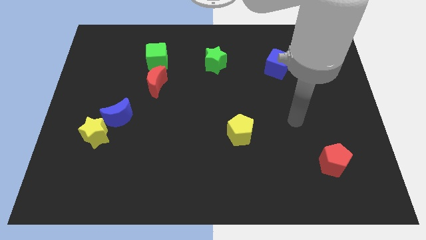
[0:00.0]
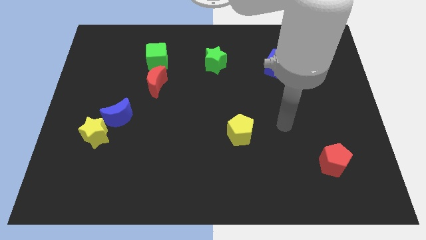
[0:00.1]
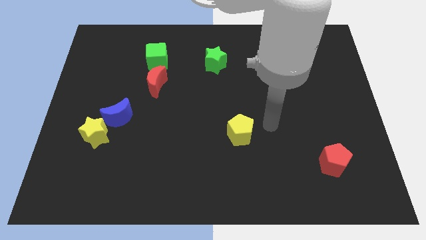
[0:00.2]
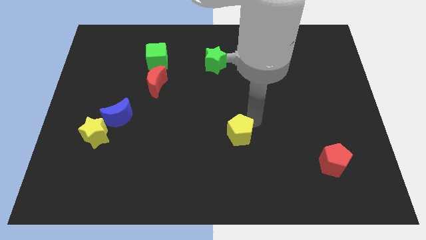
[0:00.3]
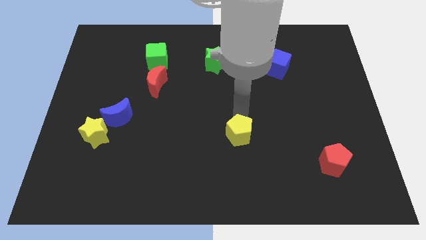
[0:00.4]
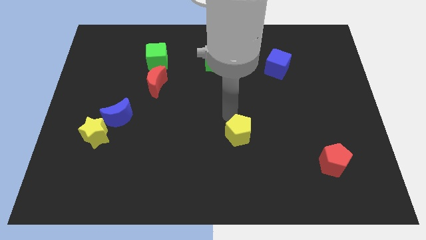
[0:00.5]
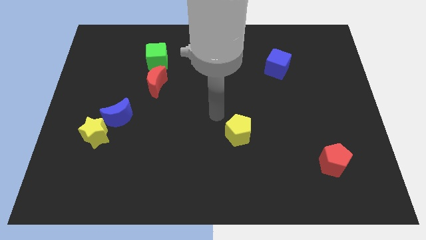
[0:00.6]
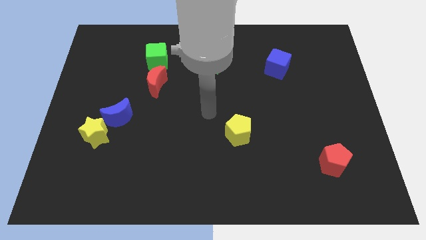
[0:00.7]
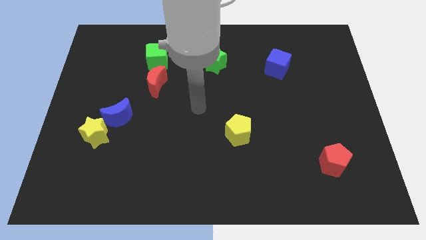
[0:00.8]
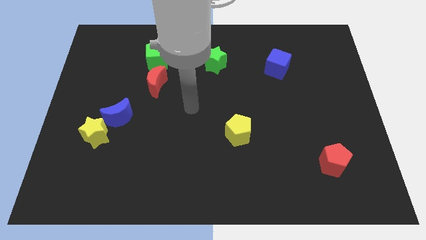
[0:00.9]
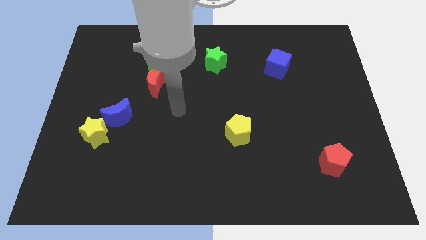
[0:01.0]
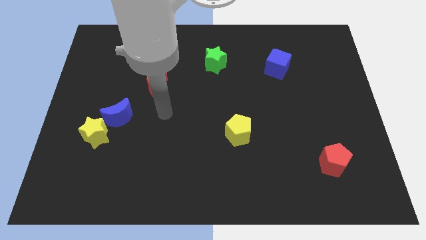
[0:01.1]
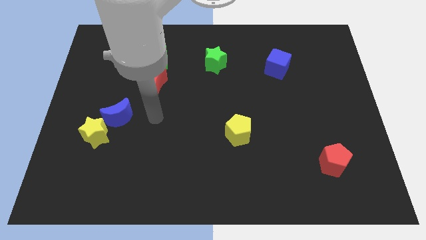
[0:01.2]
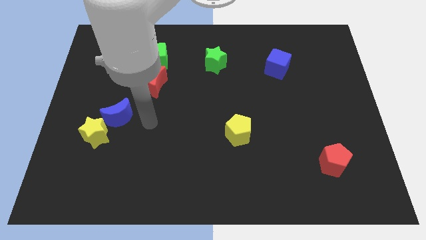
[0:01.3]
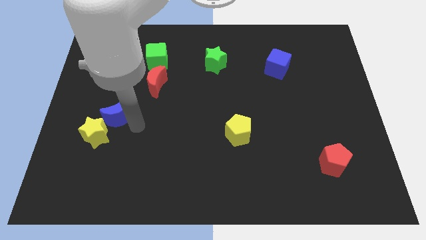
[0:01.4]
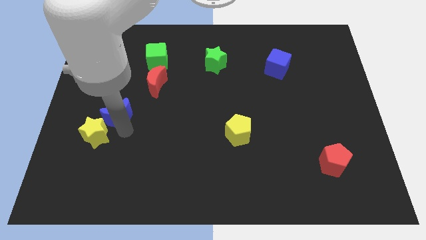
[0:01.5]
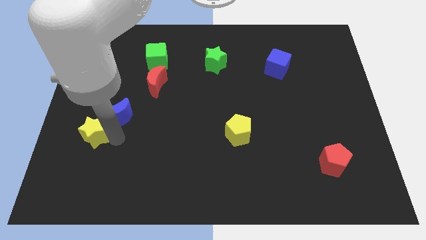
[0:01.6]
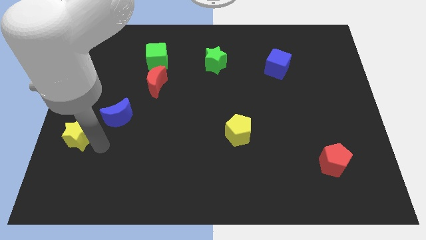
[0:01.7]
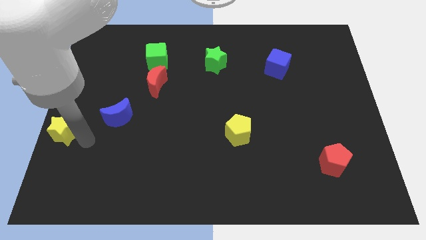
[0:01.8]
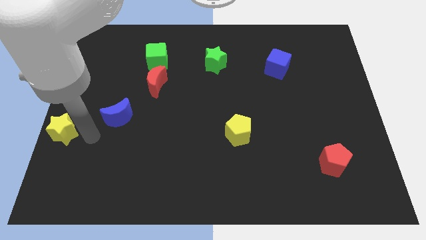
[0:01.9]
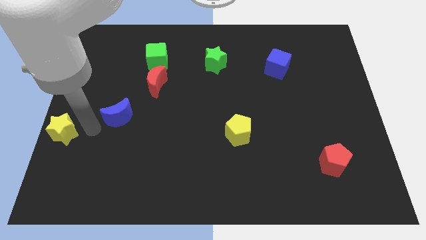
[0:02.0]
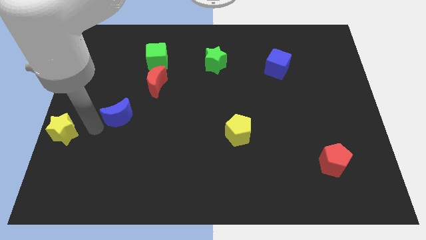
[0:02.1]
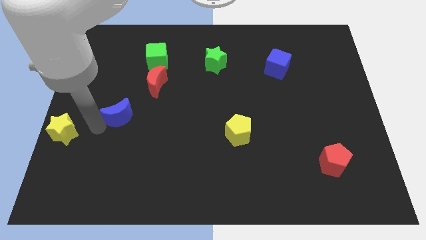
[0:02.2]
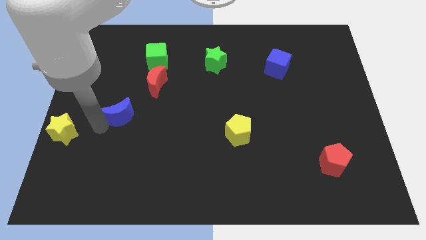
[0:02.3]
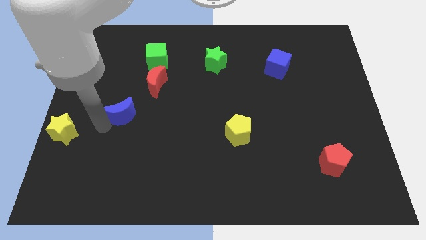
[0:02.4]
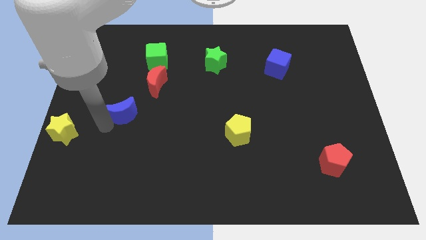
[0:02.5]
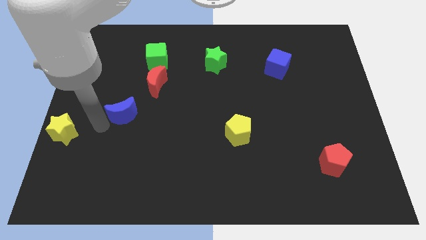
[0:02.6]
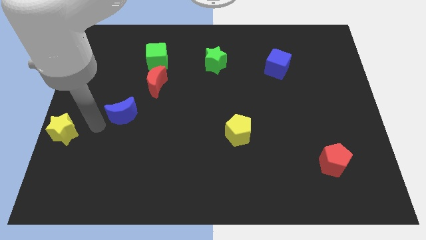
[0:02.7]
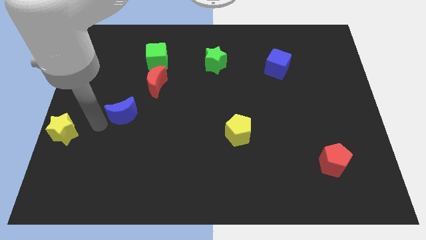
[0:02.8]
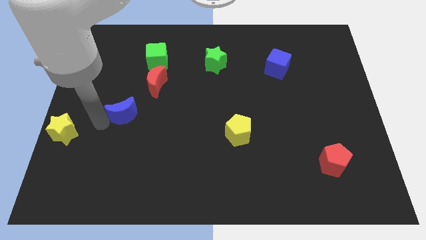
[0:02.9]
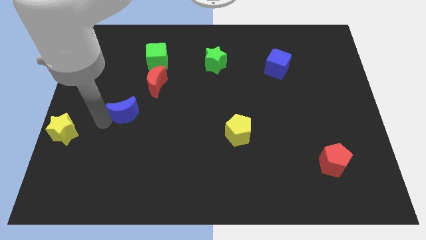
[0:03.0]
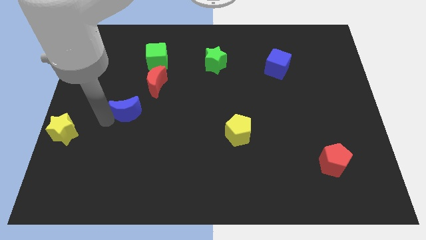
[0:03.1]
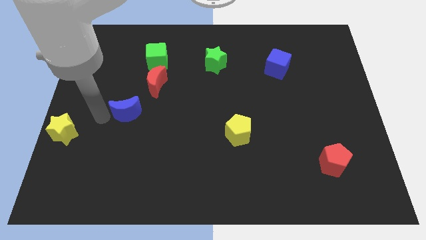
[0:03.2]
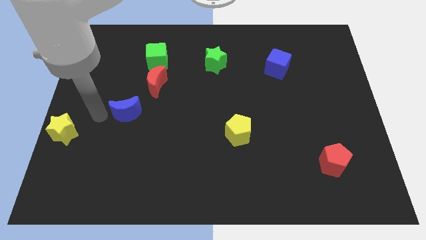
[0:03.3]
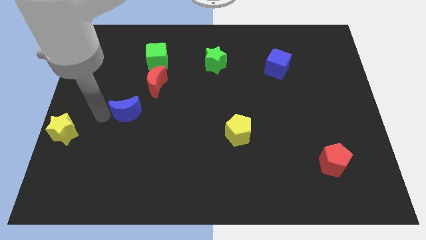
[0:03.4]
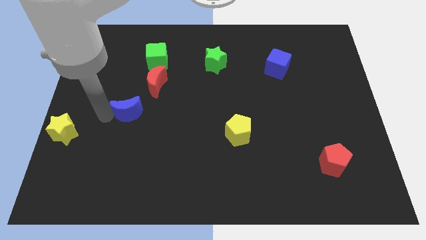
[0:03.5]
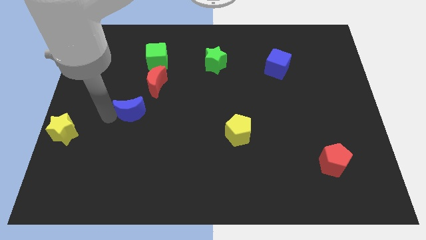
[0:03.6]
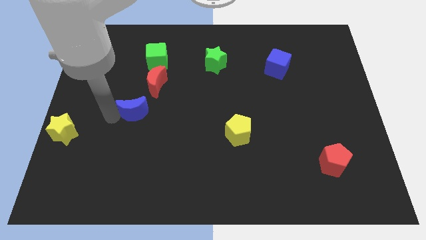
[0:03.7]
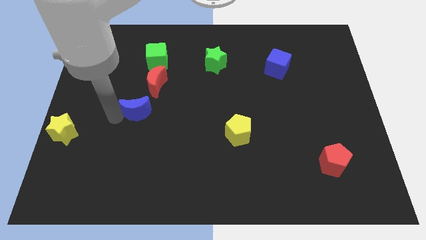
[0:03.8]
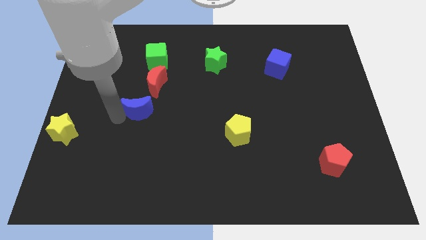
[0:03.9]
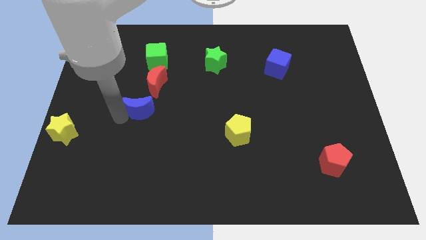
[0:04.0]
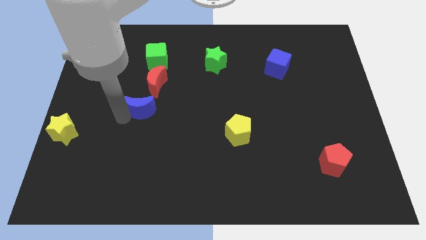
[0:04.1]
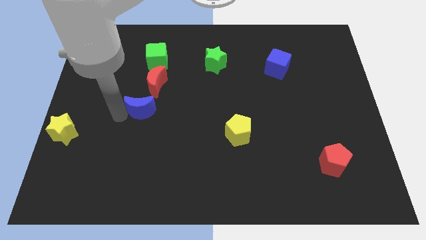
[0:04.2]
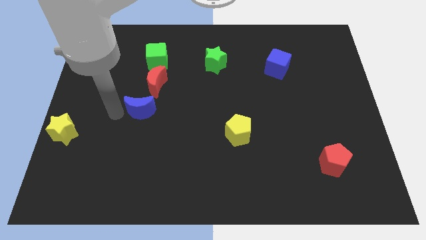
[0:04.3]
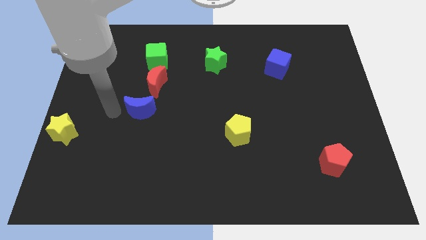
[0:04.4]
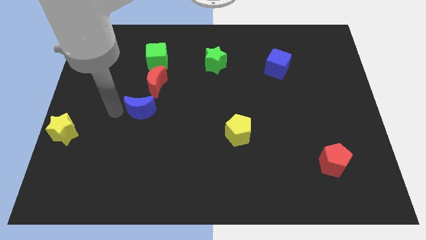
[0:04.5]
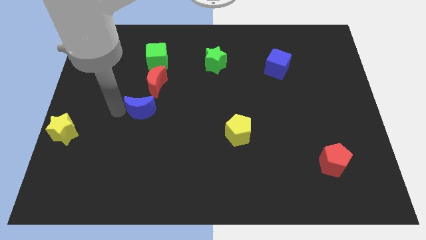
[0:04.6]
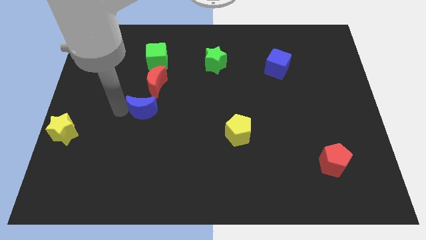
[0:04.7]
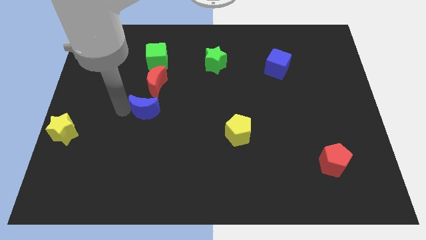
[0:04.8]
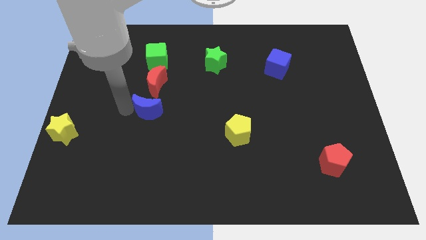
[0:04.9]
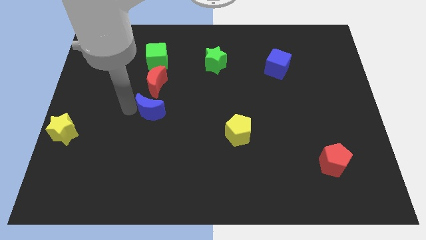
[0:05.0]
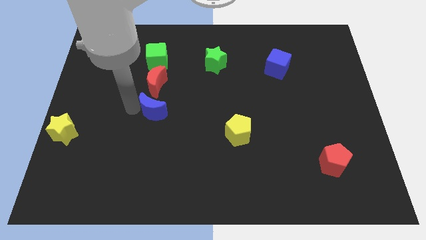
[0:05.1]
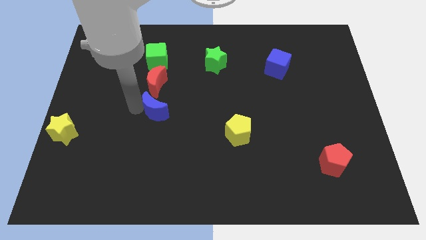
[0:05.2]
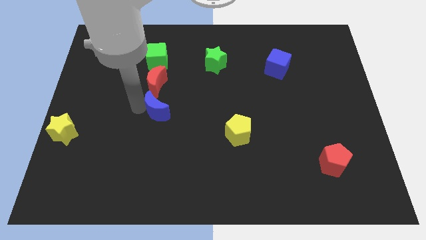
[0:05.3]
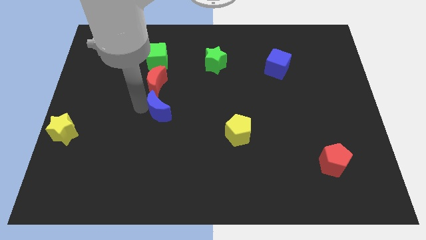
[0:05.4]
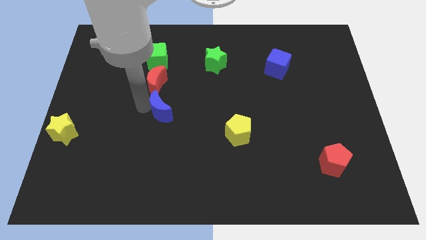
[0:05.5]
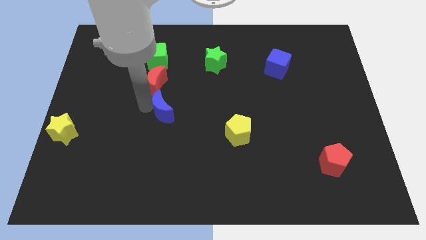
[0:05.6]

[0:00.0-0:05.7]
put the blue moon to the center

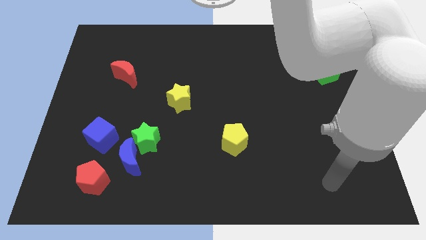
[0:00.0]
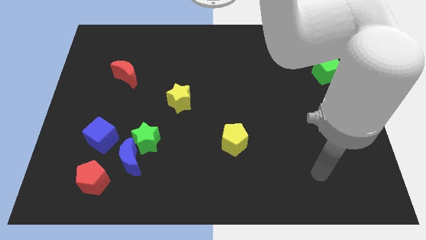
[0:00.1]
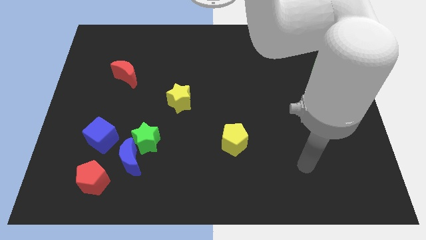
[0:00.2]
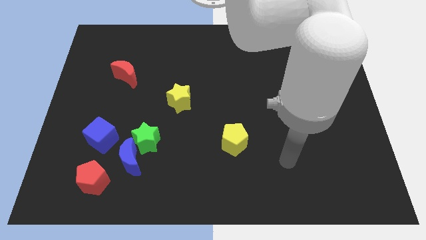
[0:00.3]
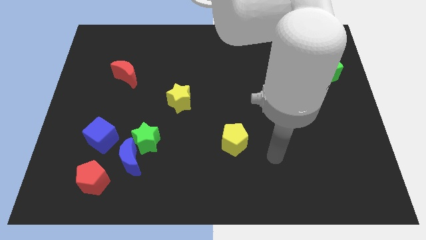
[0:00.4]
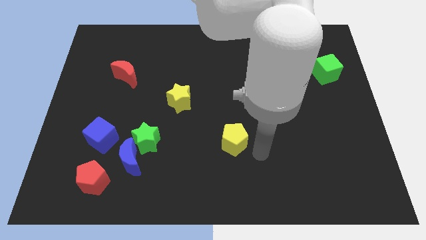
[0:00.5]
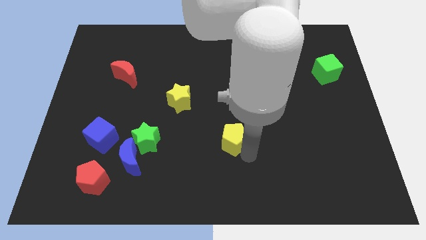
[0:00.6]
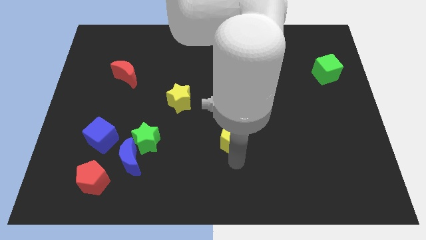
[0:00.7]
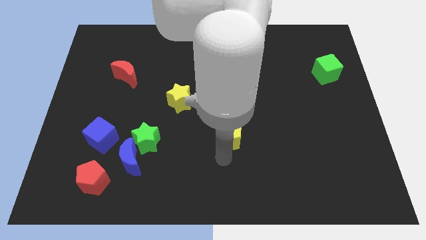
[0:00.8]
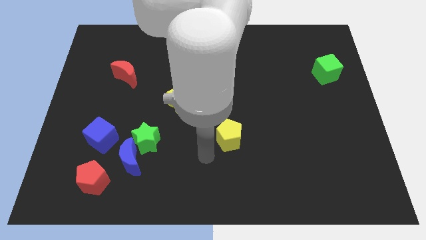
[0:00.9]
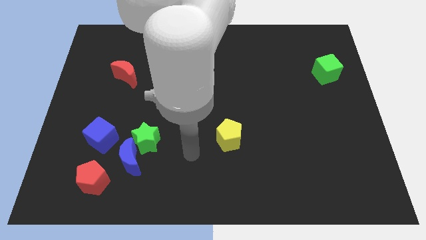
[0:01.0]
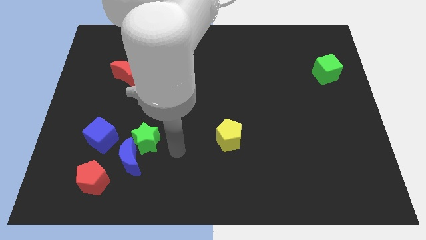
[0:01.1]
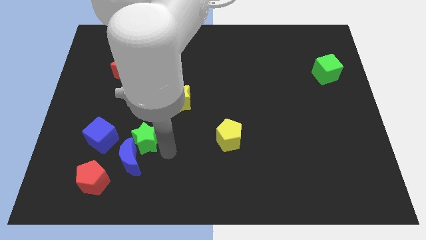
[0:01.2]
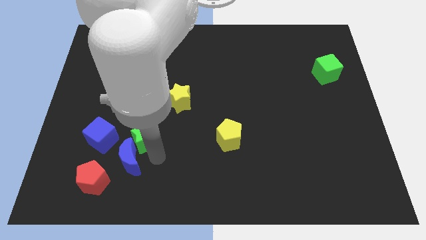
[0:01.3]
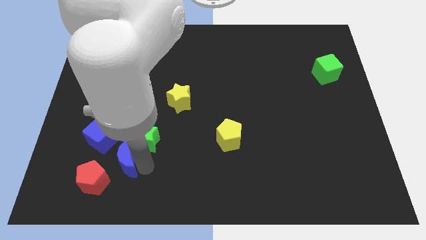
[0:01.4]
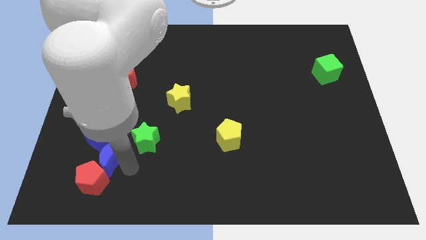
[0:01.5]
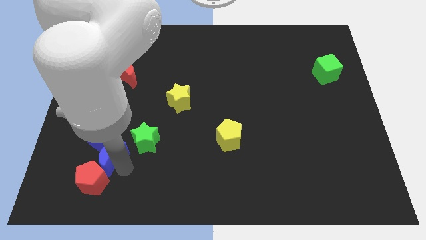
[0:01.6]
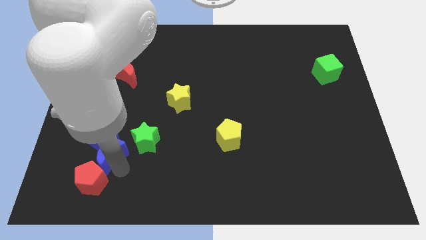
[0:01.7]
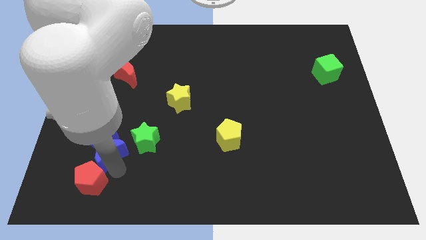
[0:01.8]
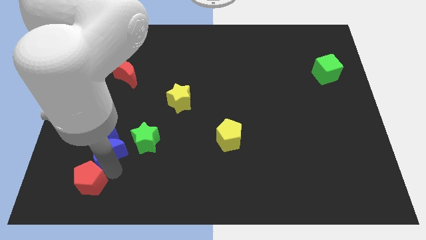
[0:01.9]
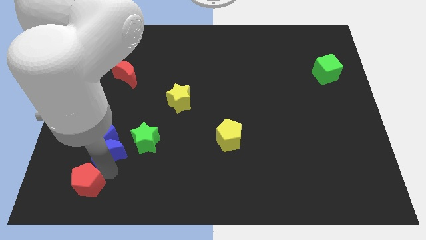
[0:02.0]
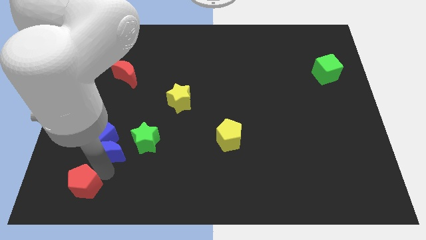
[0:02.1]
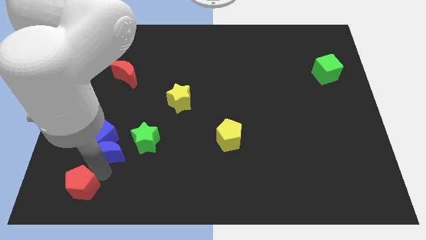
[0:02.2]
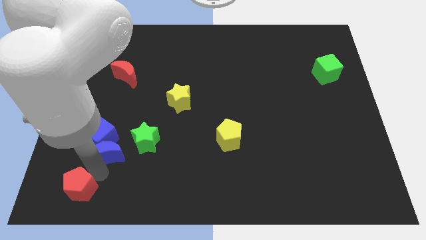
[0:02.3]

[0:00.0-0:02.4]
push the red pentagon to the bottom left
